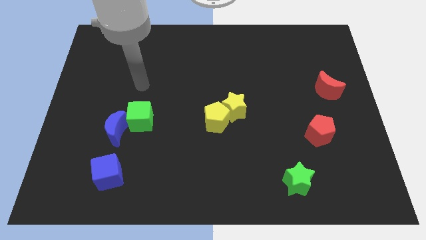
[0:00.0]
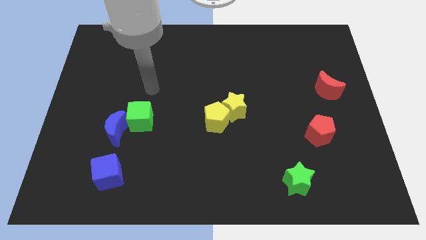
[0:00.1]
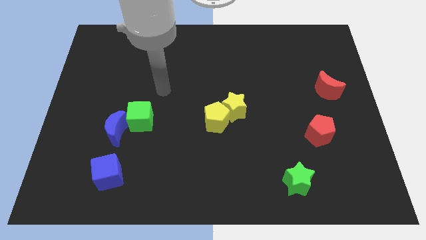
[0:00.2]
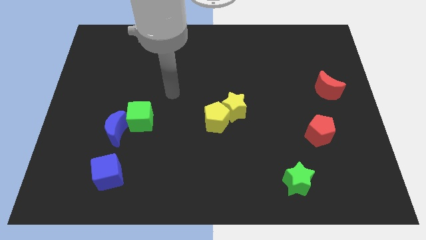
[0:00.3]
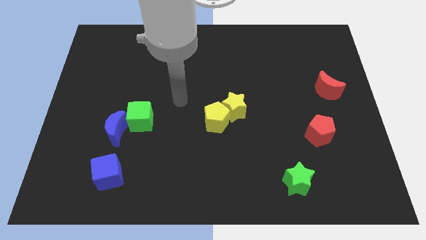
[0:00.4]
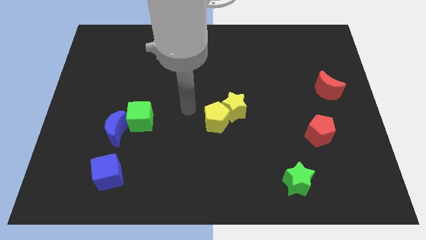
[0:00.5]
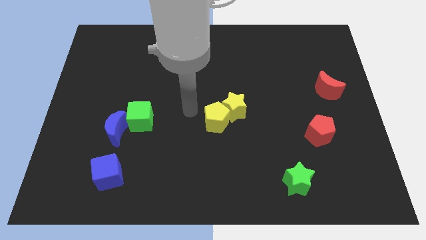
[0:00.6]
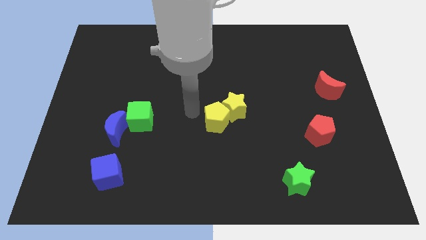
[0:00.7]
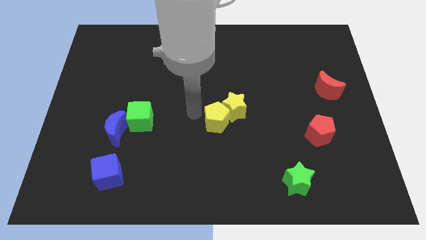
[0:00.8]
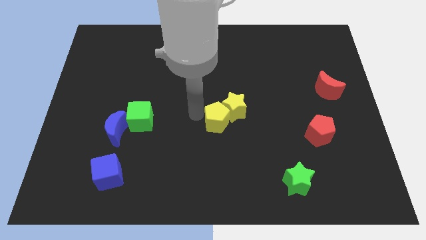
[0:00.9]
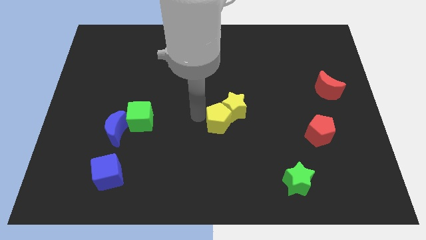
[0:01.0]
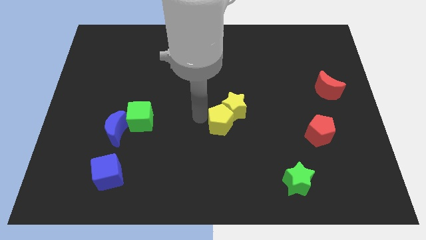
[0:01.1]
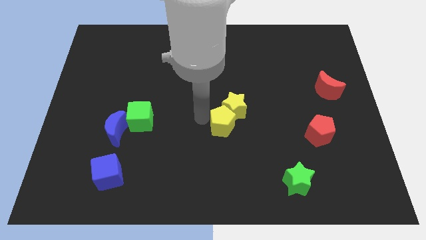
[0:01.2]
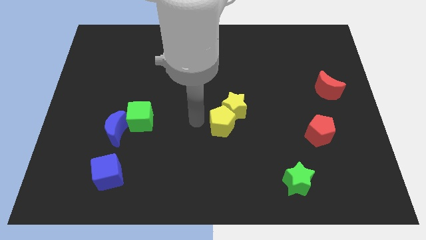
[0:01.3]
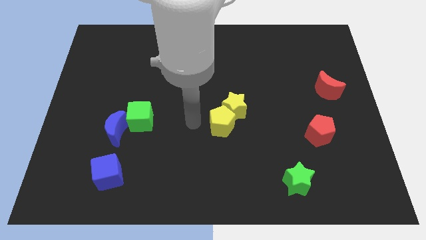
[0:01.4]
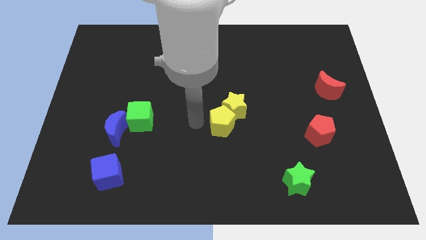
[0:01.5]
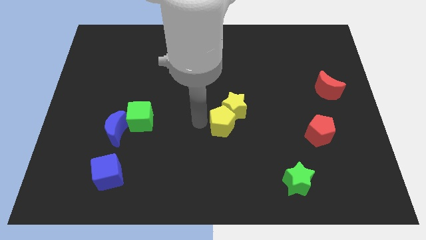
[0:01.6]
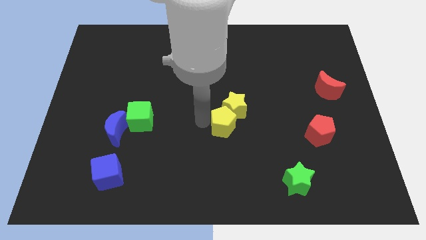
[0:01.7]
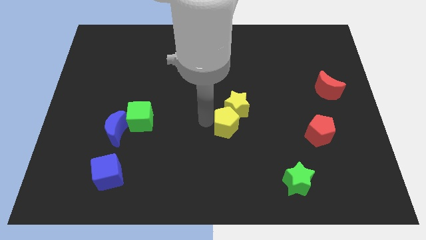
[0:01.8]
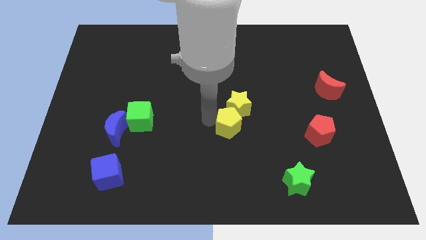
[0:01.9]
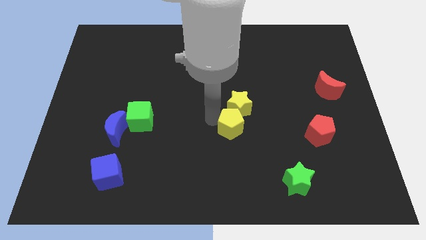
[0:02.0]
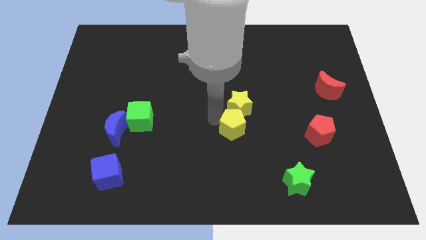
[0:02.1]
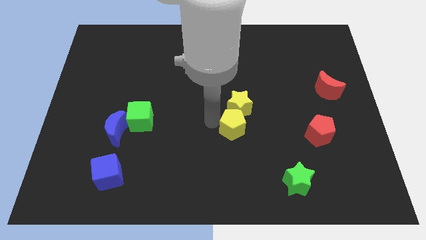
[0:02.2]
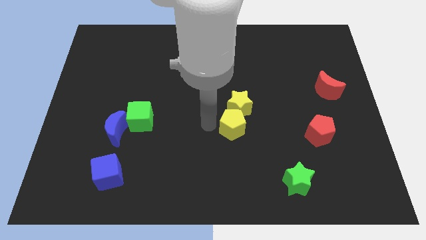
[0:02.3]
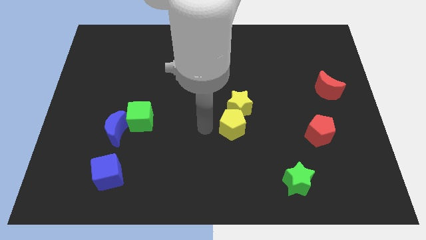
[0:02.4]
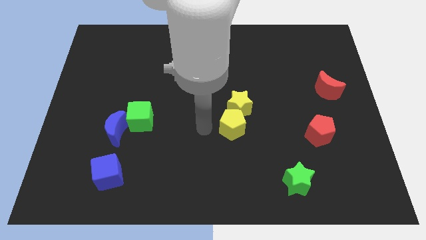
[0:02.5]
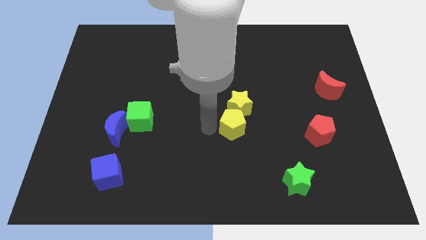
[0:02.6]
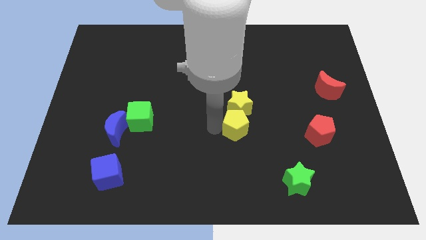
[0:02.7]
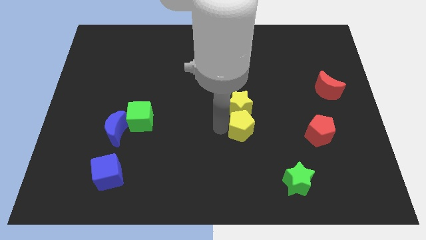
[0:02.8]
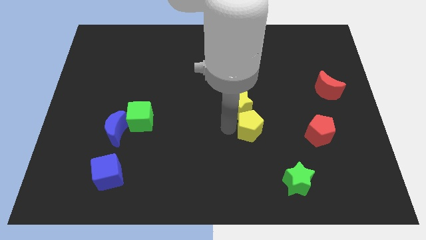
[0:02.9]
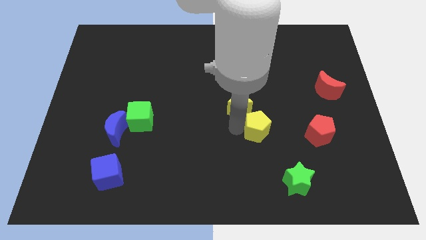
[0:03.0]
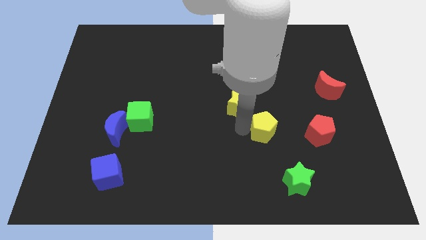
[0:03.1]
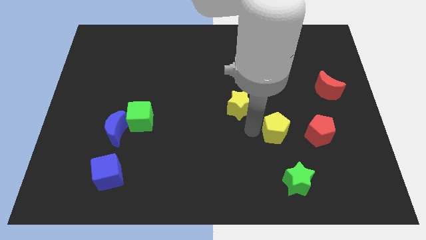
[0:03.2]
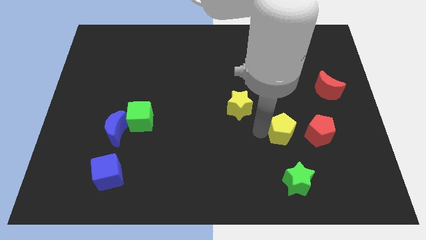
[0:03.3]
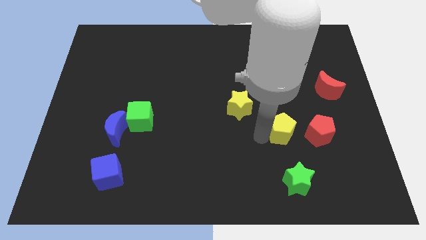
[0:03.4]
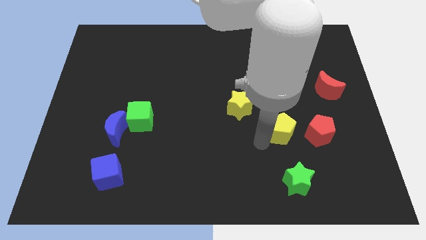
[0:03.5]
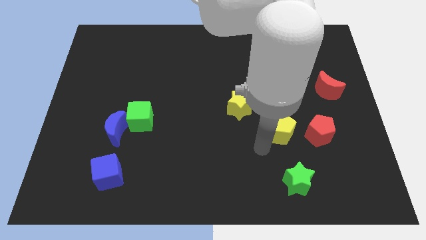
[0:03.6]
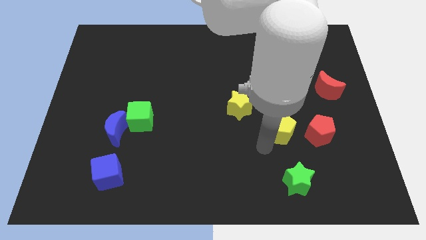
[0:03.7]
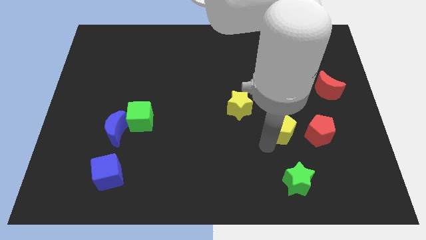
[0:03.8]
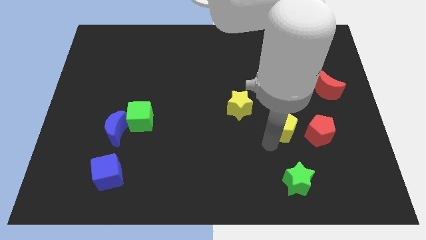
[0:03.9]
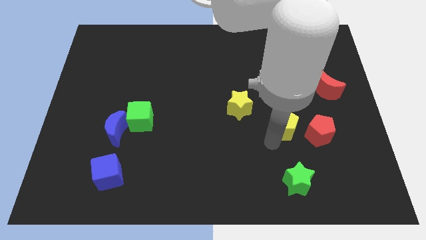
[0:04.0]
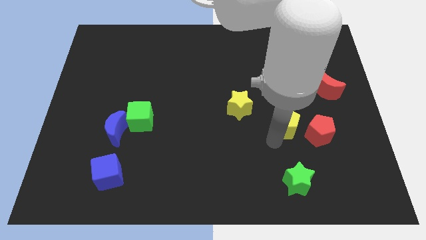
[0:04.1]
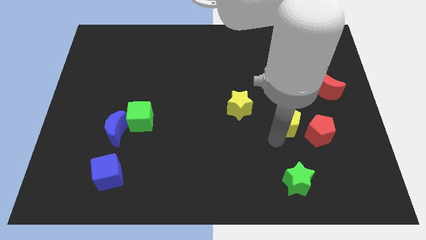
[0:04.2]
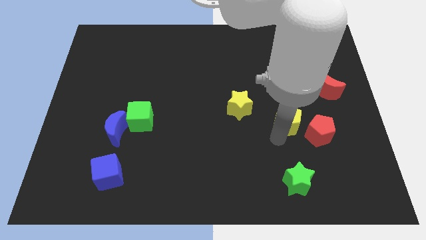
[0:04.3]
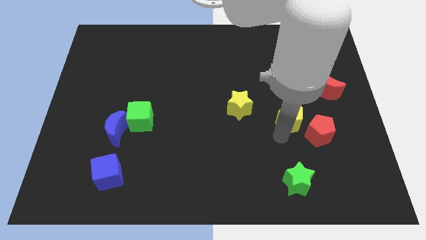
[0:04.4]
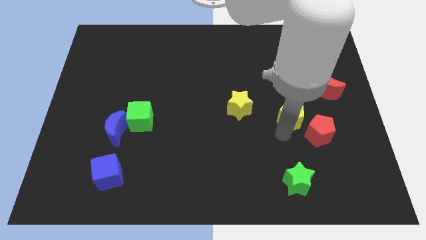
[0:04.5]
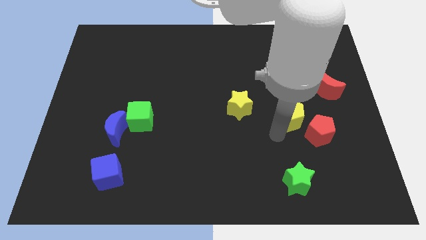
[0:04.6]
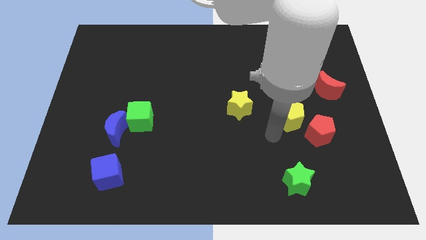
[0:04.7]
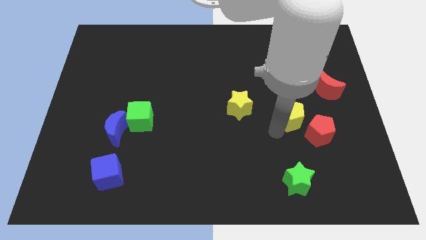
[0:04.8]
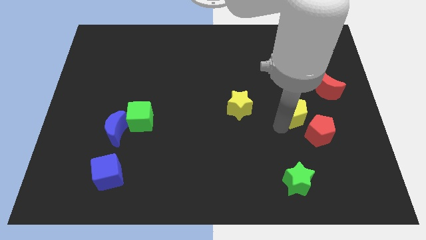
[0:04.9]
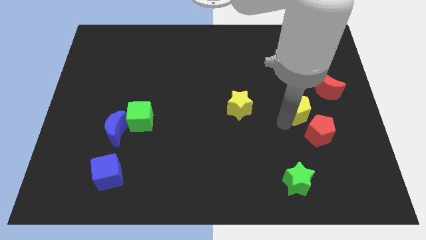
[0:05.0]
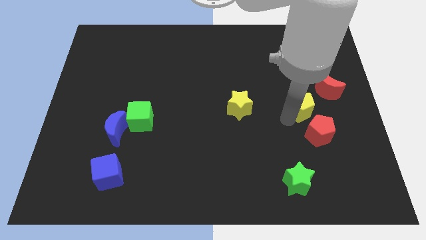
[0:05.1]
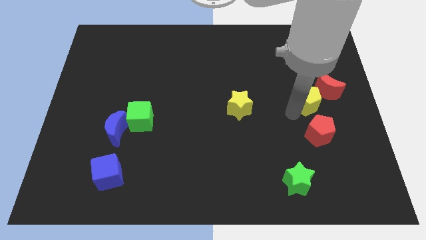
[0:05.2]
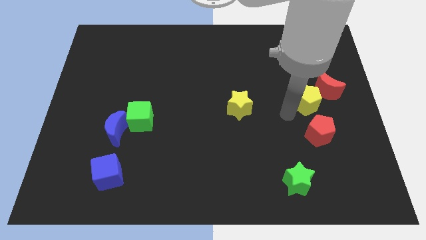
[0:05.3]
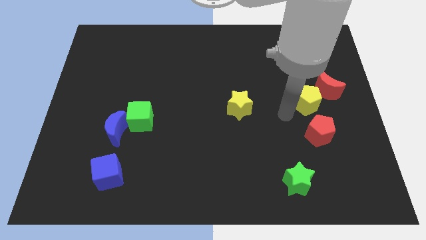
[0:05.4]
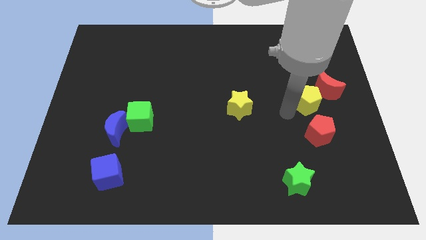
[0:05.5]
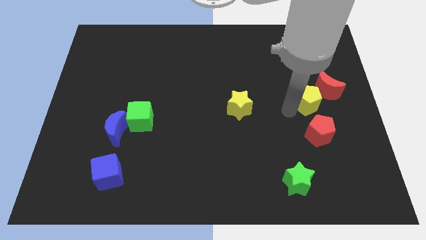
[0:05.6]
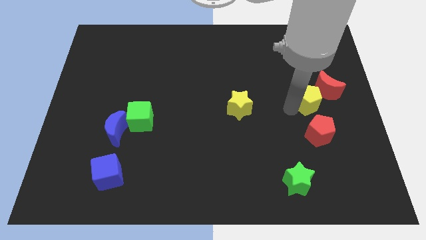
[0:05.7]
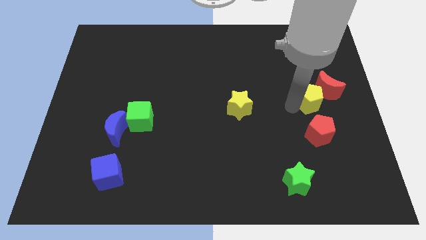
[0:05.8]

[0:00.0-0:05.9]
put the yellow pentagon close to the red moon

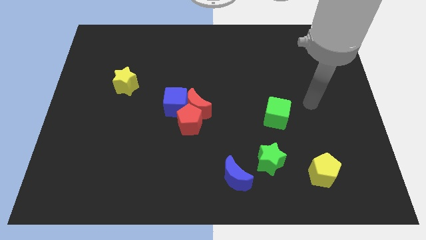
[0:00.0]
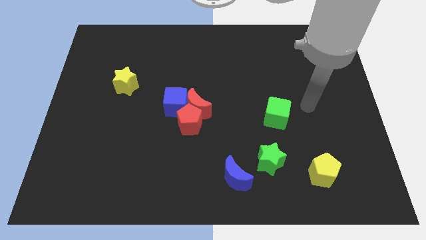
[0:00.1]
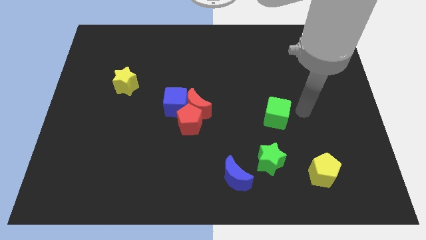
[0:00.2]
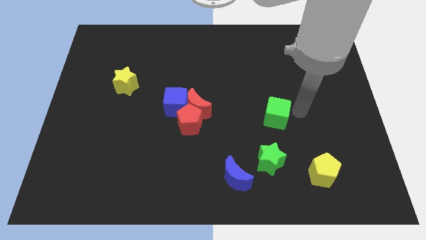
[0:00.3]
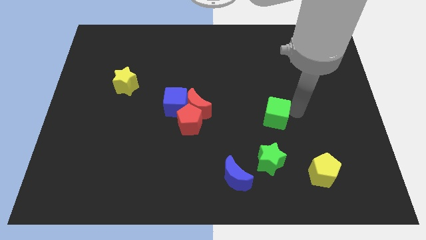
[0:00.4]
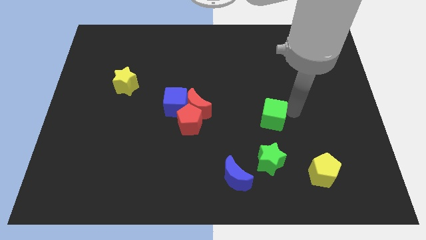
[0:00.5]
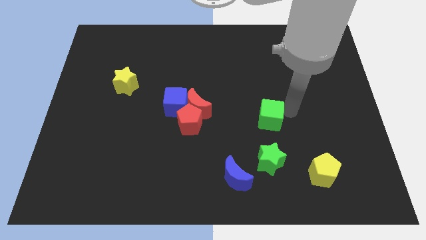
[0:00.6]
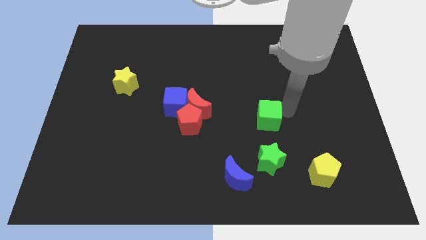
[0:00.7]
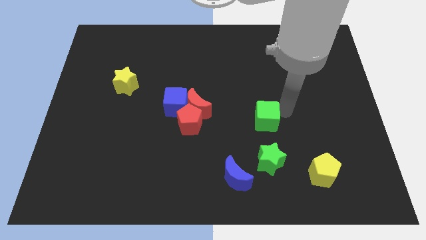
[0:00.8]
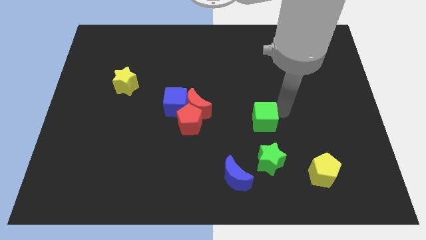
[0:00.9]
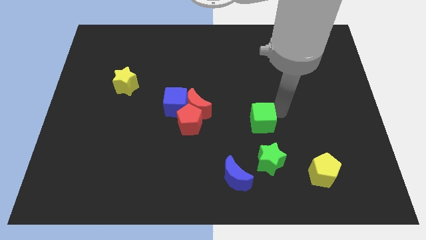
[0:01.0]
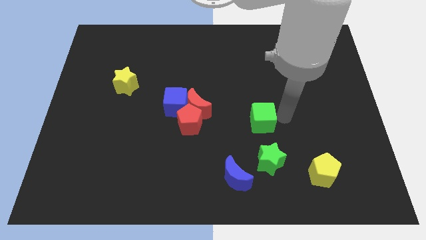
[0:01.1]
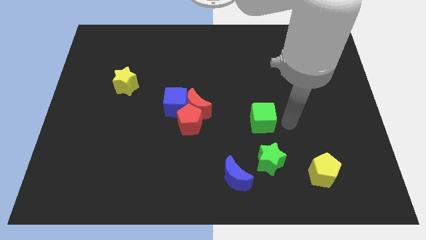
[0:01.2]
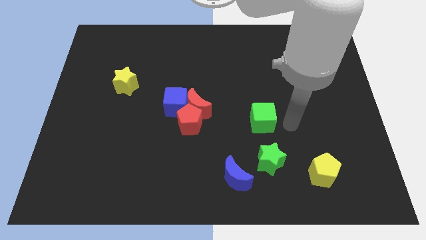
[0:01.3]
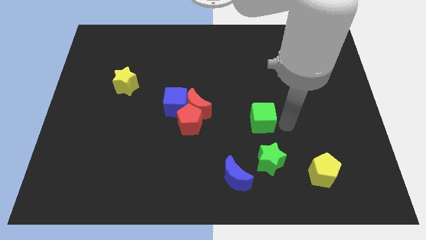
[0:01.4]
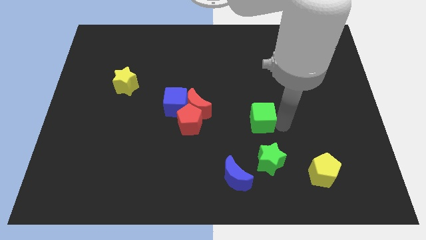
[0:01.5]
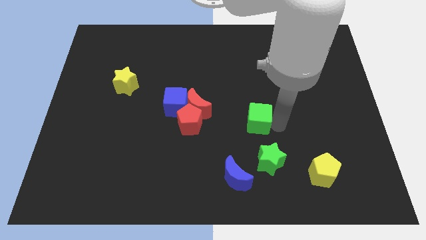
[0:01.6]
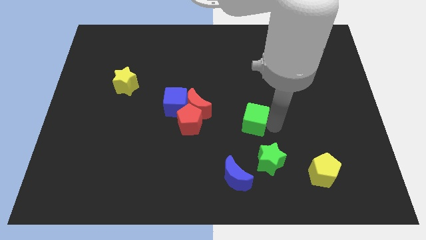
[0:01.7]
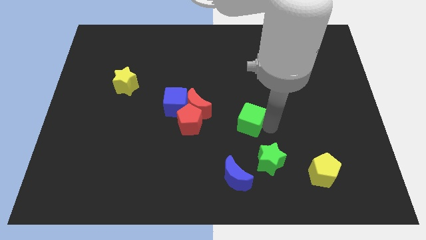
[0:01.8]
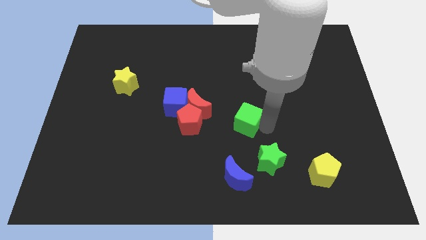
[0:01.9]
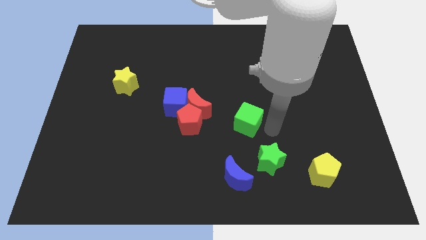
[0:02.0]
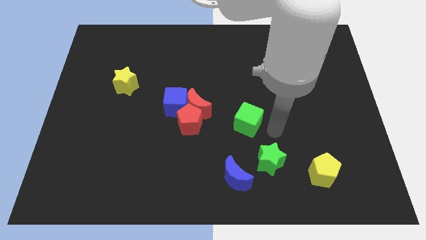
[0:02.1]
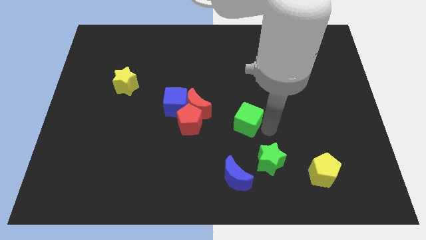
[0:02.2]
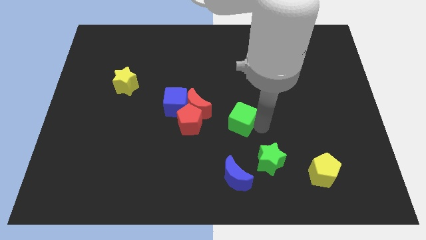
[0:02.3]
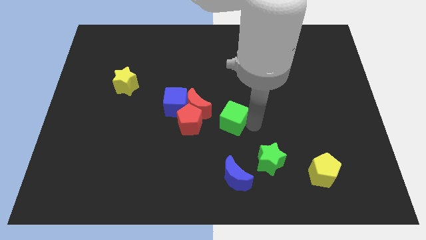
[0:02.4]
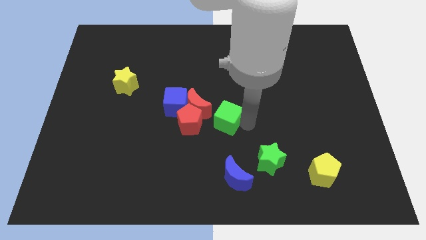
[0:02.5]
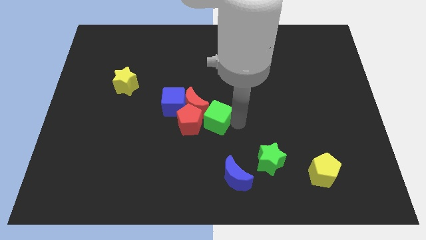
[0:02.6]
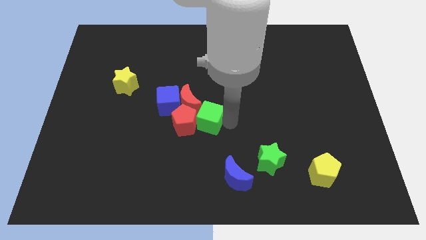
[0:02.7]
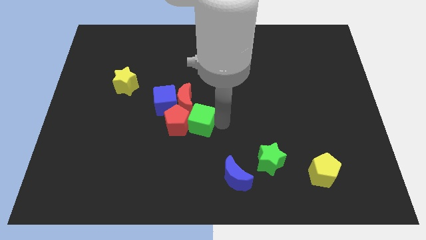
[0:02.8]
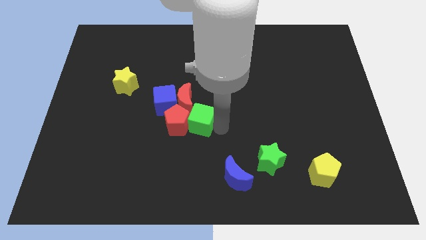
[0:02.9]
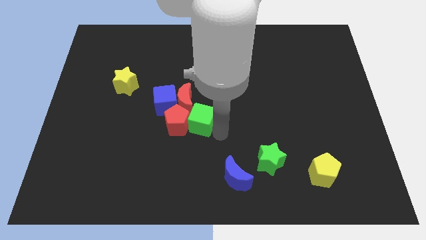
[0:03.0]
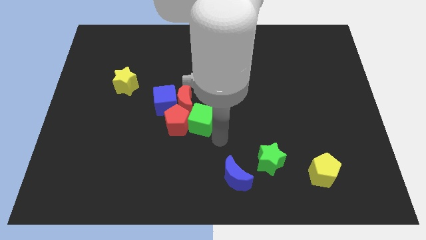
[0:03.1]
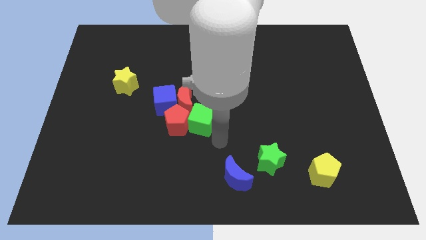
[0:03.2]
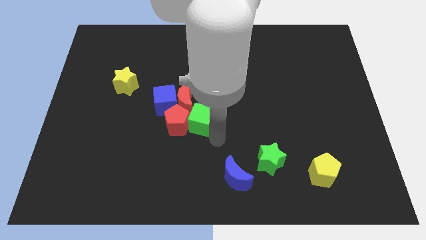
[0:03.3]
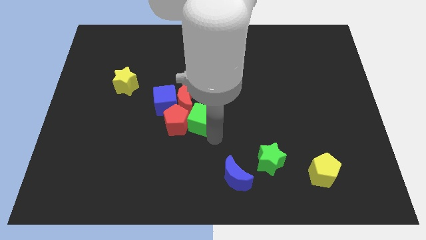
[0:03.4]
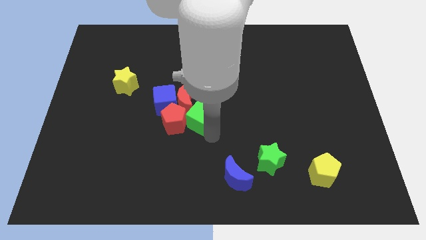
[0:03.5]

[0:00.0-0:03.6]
slide the green cube next to the red moon
